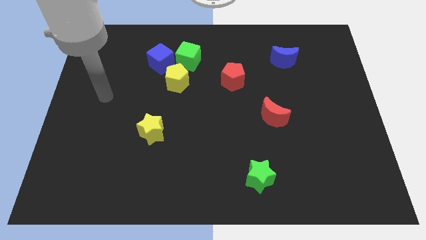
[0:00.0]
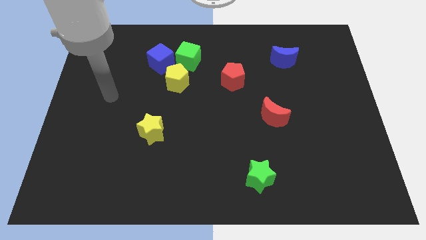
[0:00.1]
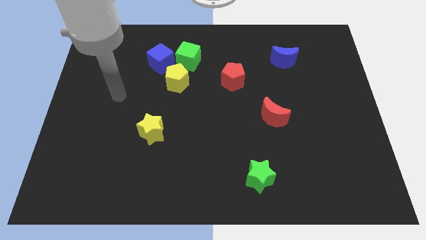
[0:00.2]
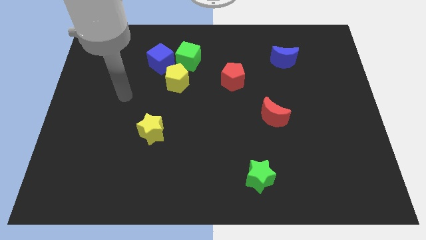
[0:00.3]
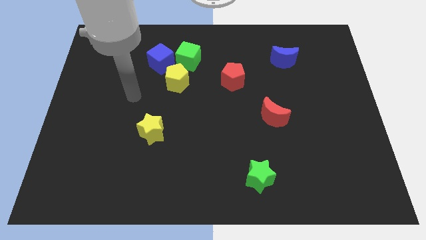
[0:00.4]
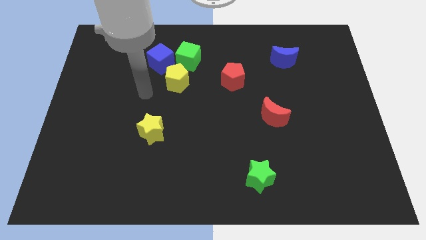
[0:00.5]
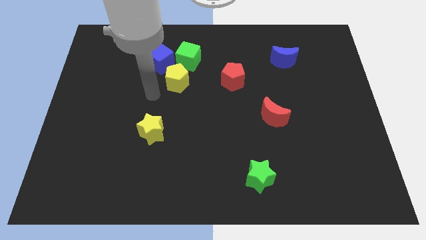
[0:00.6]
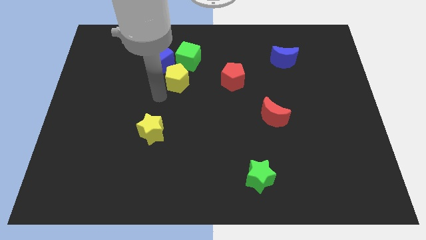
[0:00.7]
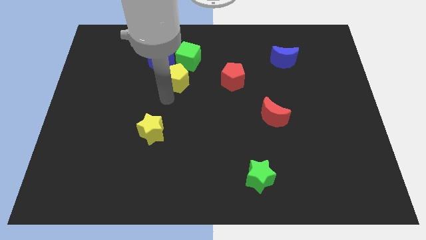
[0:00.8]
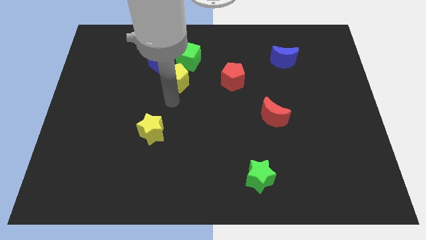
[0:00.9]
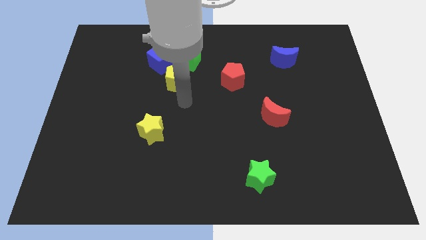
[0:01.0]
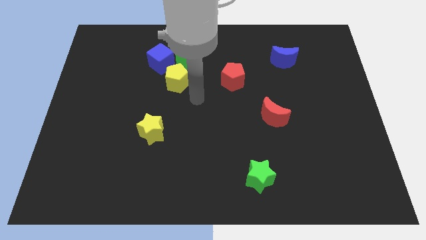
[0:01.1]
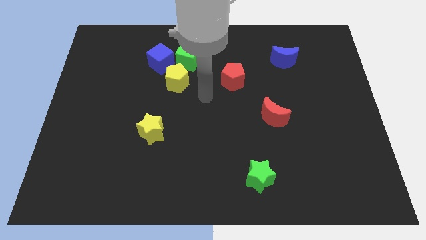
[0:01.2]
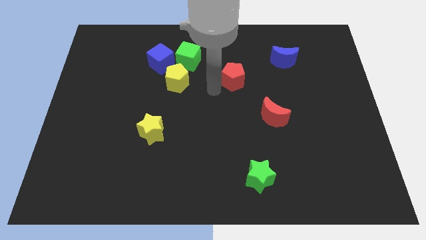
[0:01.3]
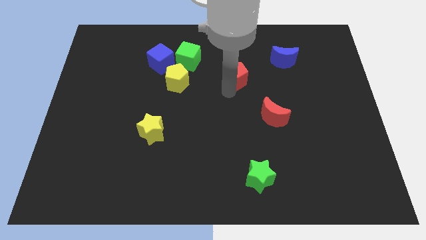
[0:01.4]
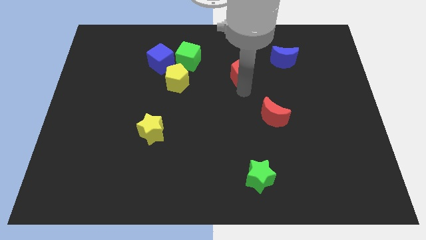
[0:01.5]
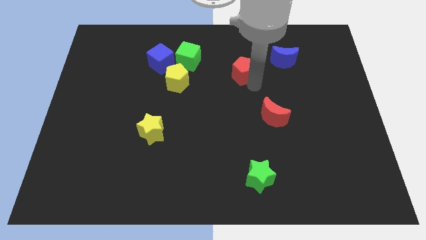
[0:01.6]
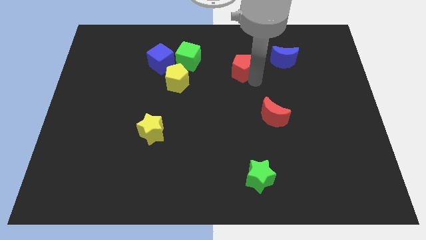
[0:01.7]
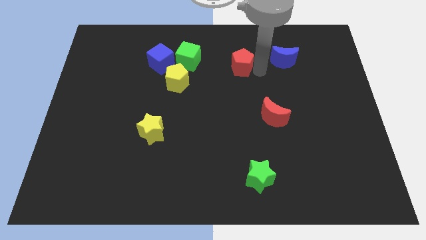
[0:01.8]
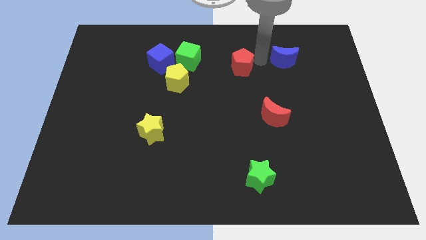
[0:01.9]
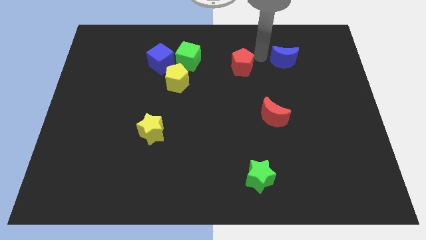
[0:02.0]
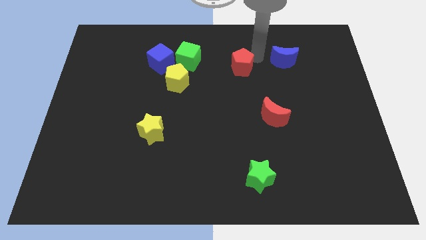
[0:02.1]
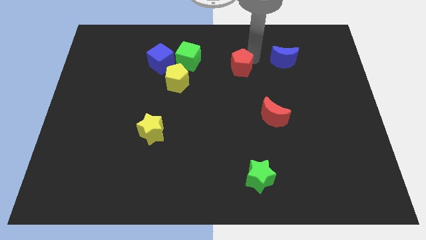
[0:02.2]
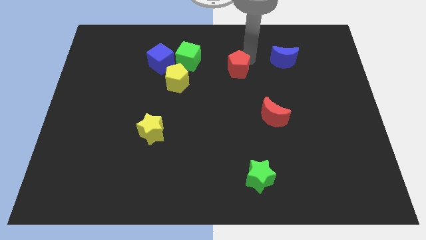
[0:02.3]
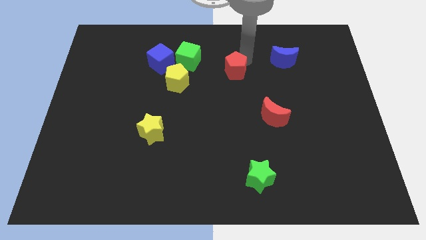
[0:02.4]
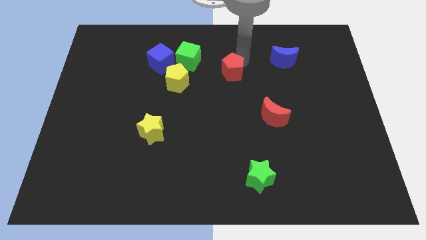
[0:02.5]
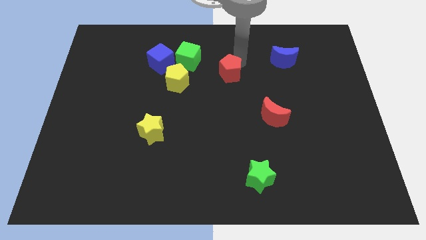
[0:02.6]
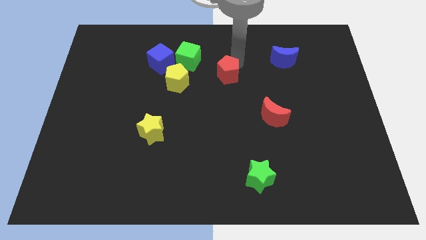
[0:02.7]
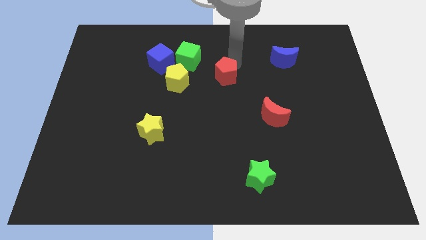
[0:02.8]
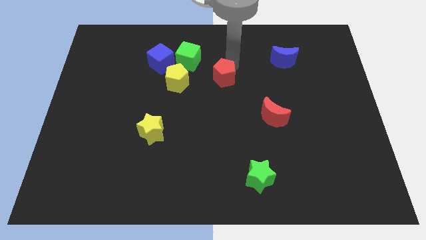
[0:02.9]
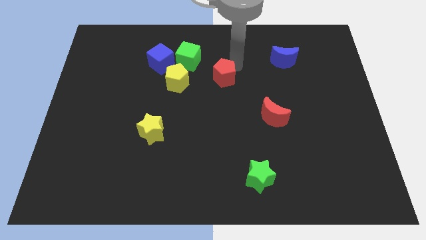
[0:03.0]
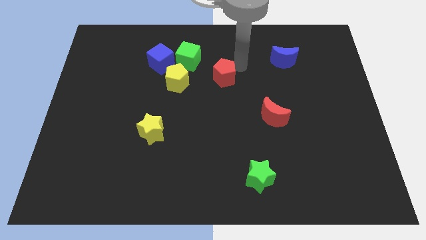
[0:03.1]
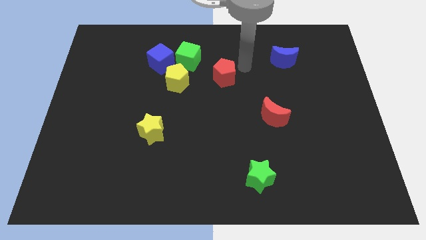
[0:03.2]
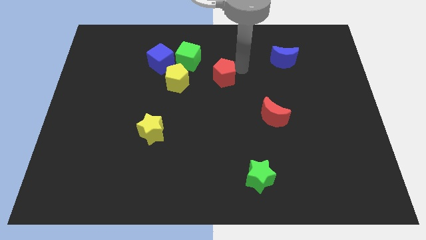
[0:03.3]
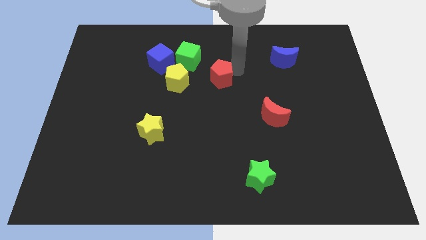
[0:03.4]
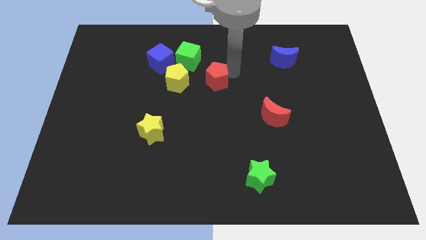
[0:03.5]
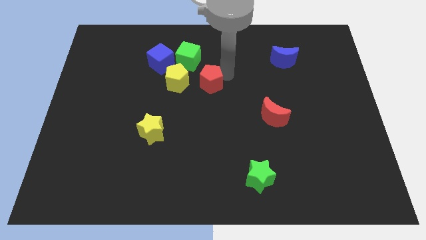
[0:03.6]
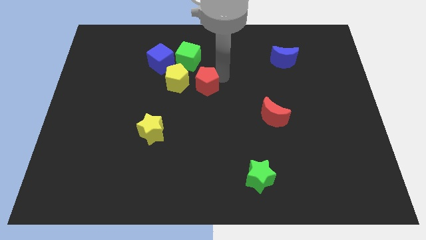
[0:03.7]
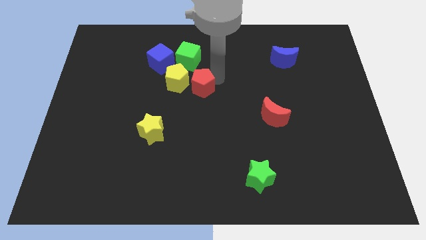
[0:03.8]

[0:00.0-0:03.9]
slightly move the red pentagon left

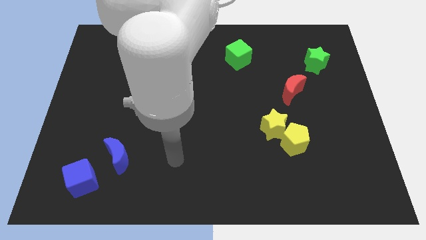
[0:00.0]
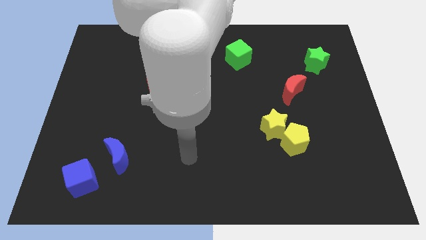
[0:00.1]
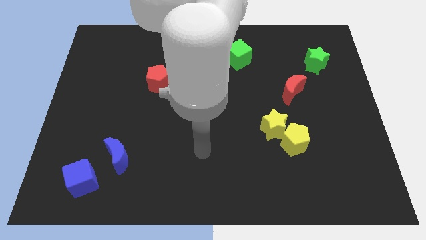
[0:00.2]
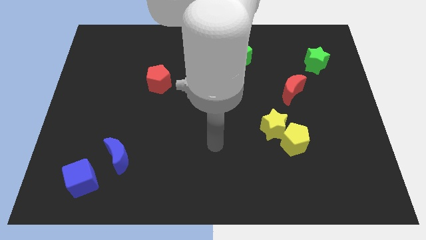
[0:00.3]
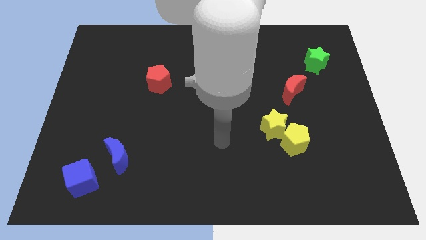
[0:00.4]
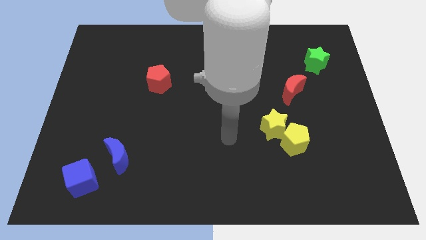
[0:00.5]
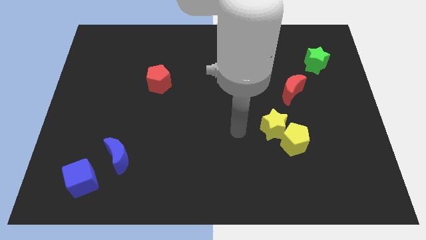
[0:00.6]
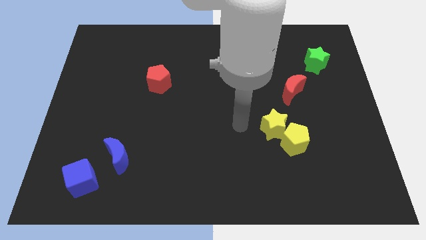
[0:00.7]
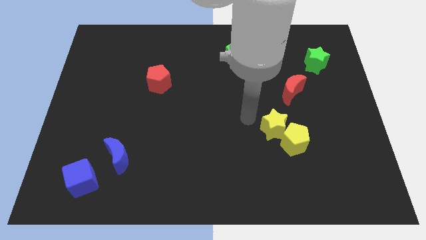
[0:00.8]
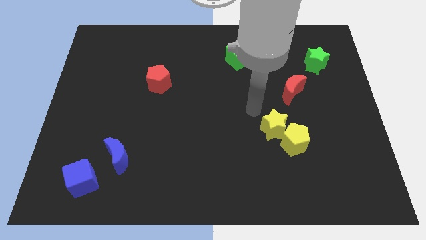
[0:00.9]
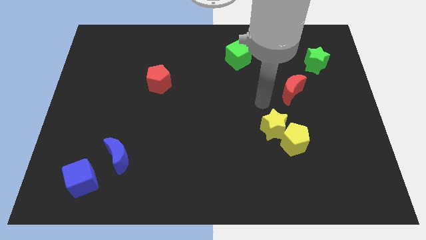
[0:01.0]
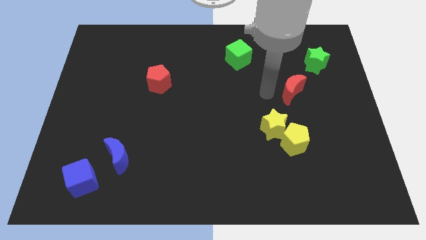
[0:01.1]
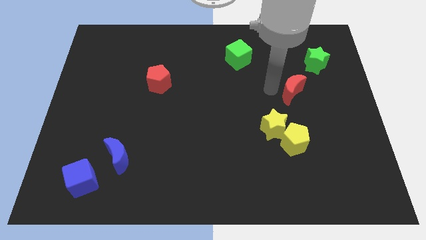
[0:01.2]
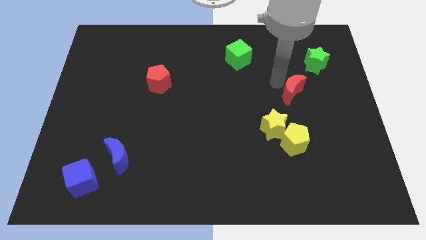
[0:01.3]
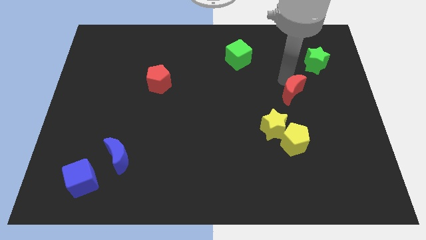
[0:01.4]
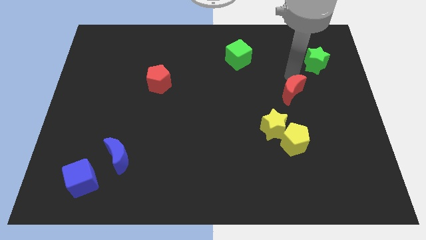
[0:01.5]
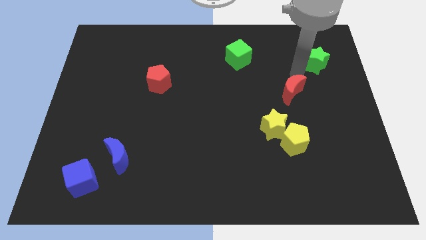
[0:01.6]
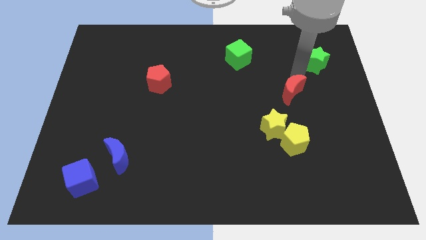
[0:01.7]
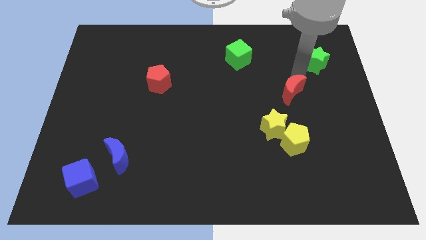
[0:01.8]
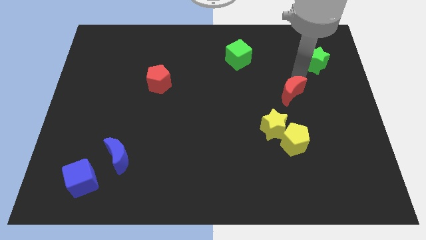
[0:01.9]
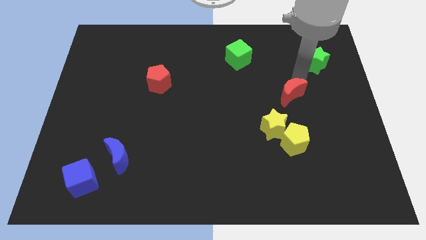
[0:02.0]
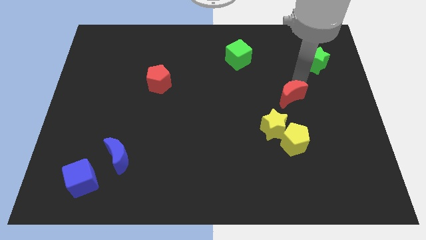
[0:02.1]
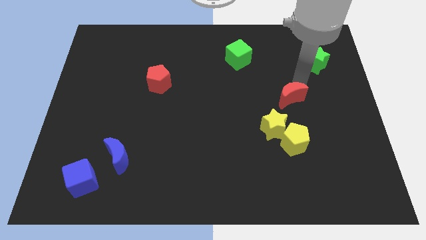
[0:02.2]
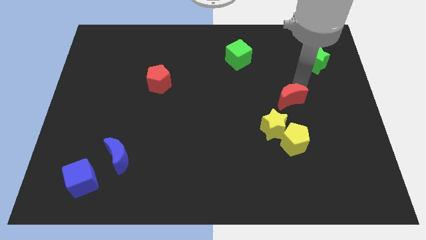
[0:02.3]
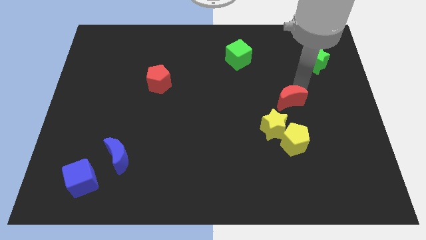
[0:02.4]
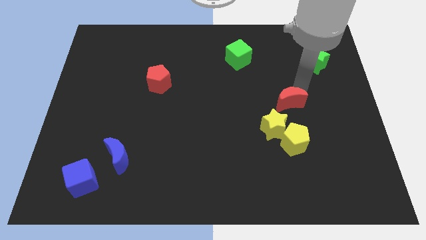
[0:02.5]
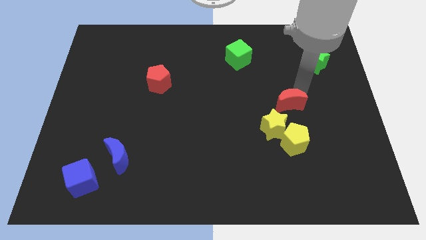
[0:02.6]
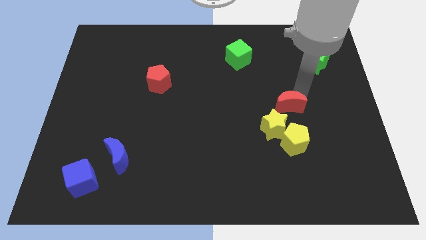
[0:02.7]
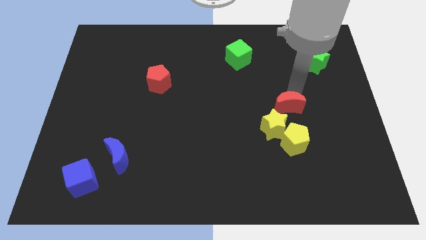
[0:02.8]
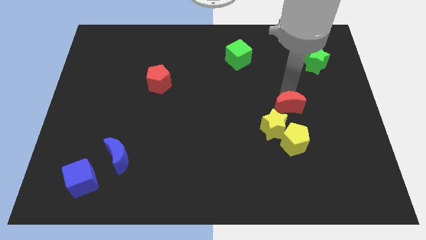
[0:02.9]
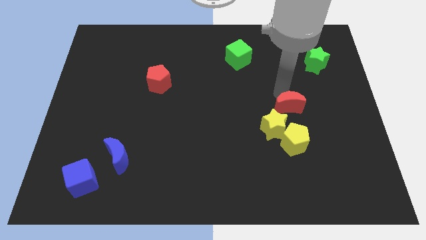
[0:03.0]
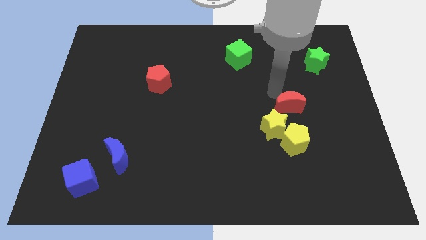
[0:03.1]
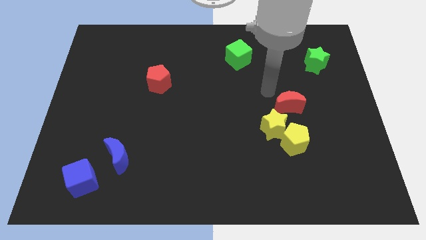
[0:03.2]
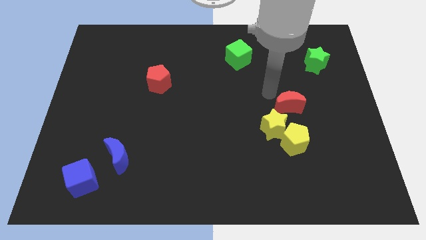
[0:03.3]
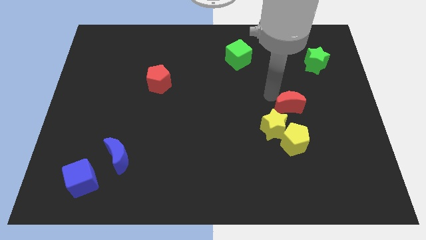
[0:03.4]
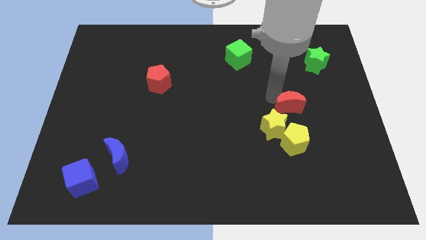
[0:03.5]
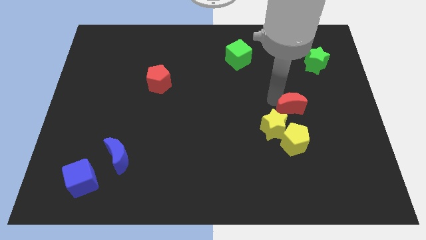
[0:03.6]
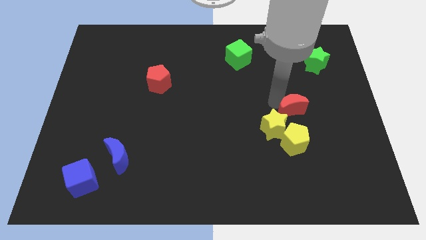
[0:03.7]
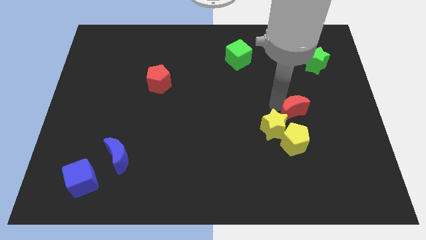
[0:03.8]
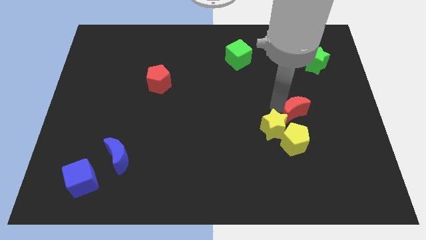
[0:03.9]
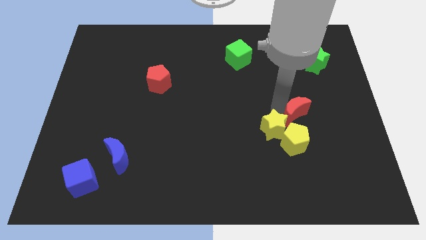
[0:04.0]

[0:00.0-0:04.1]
move the red moon a bit downwards

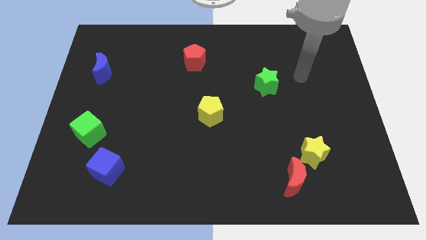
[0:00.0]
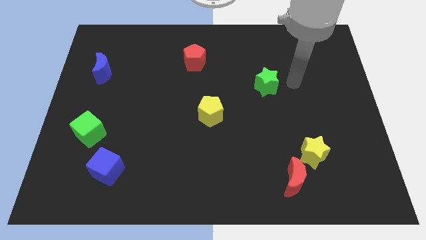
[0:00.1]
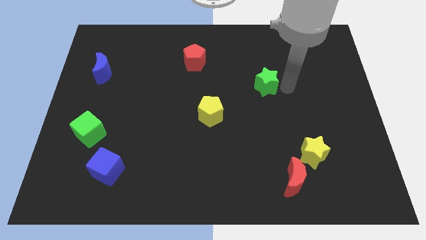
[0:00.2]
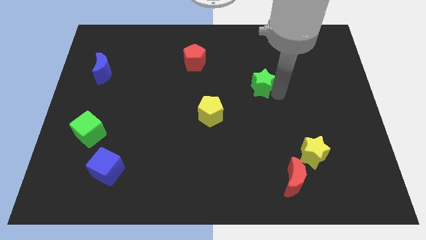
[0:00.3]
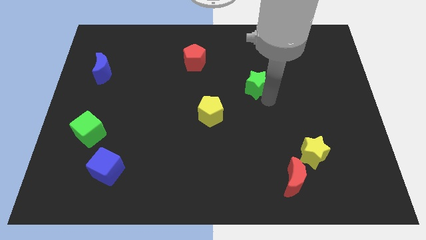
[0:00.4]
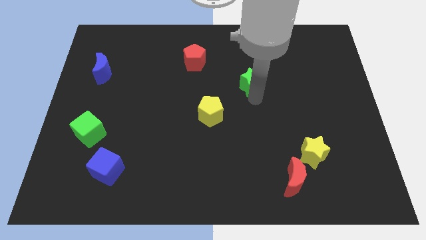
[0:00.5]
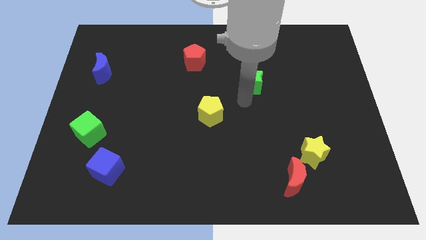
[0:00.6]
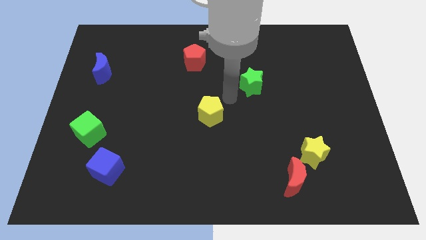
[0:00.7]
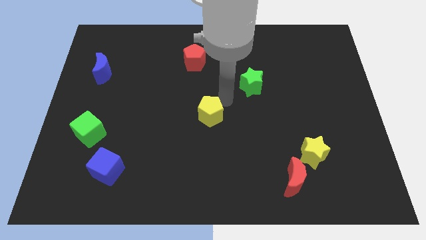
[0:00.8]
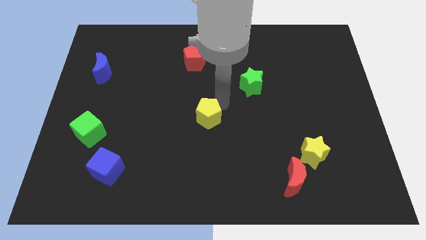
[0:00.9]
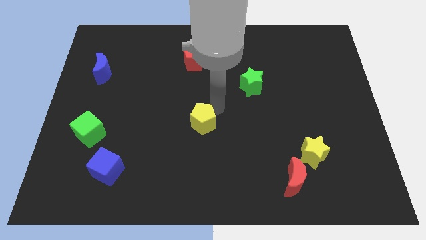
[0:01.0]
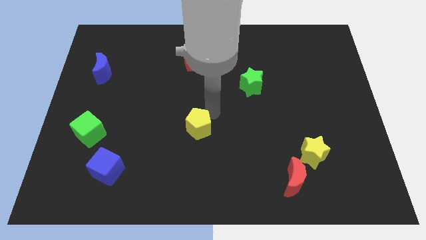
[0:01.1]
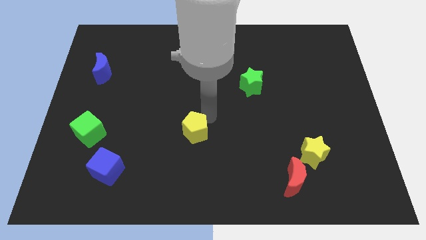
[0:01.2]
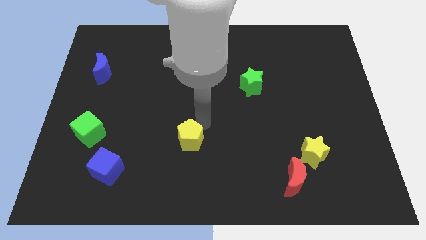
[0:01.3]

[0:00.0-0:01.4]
slightly push the yellow pentagon downwards and to the left
